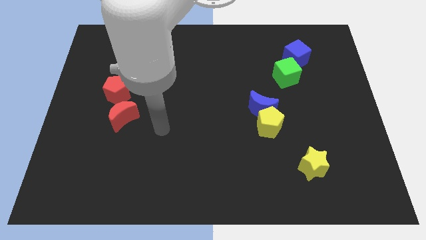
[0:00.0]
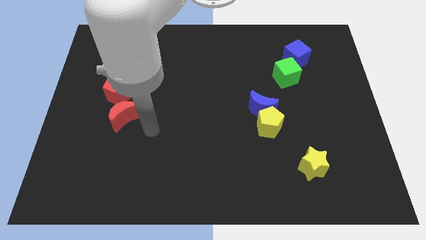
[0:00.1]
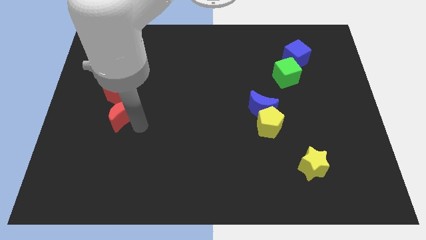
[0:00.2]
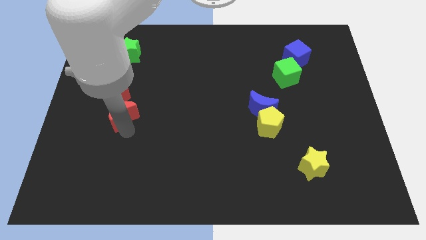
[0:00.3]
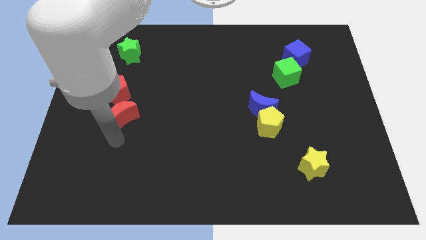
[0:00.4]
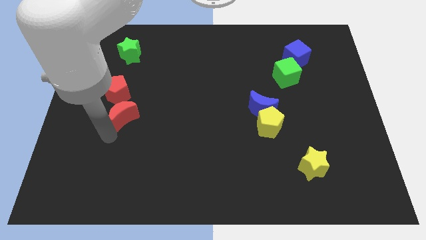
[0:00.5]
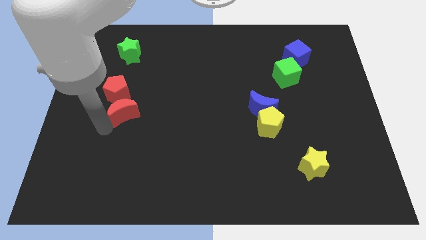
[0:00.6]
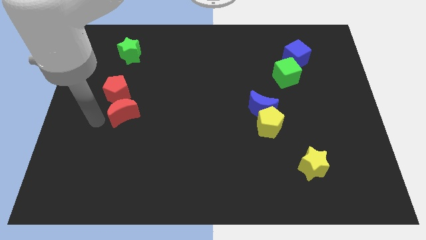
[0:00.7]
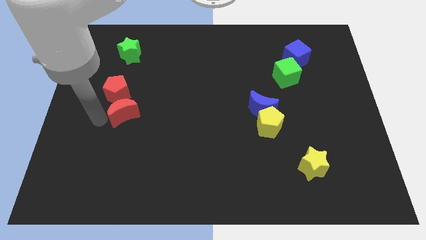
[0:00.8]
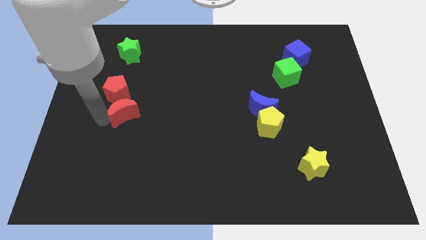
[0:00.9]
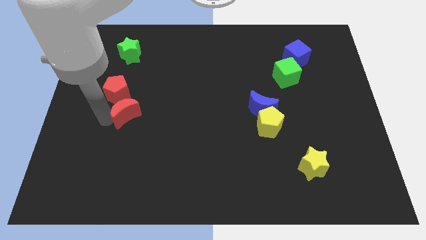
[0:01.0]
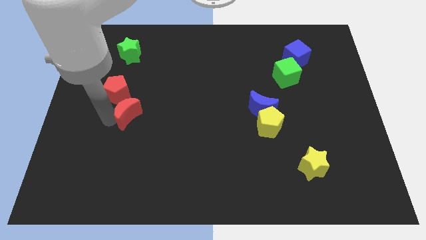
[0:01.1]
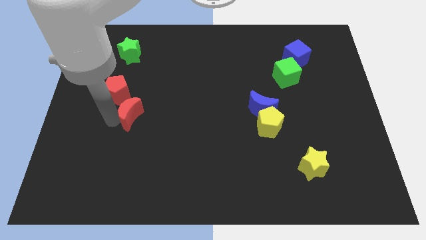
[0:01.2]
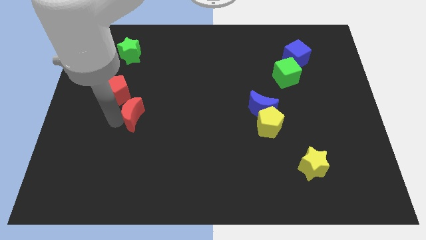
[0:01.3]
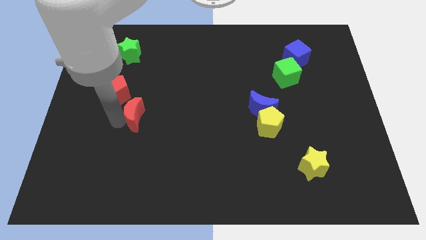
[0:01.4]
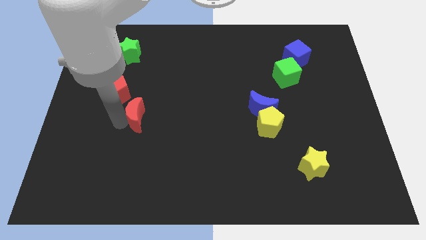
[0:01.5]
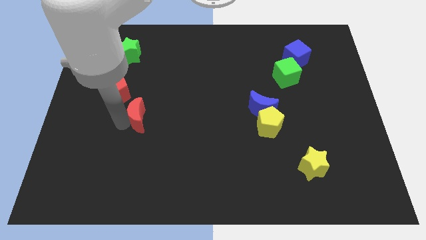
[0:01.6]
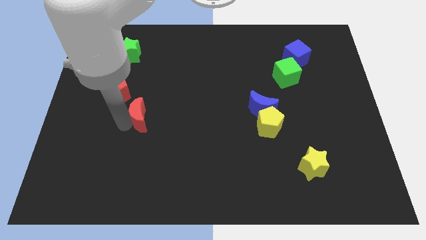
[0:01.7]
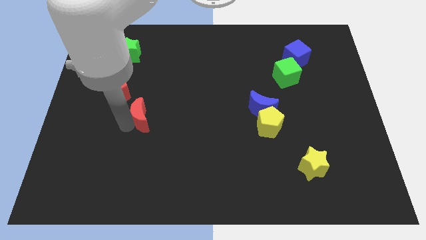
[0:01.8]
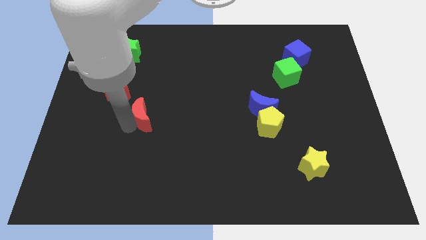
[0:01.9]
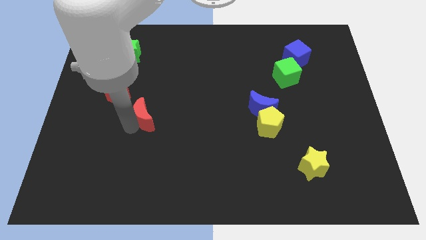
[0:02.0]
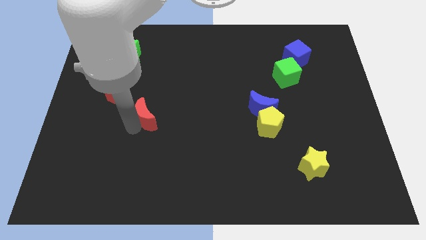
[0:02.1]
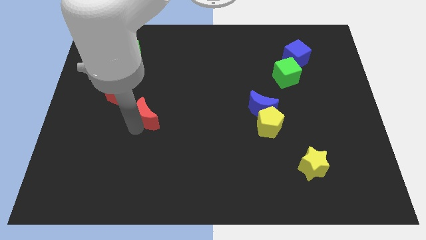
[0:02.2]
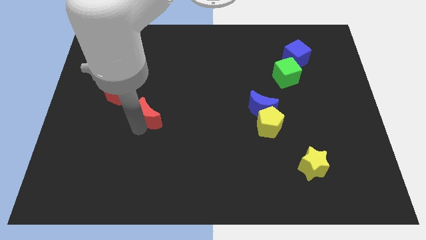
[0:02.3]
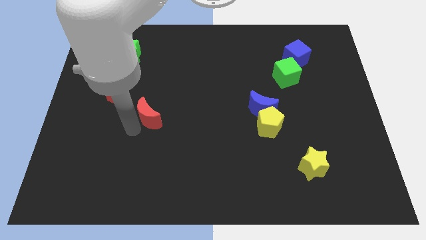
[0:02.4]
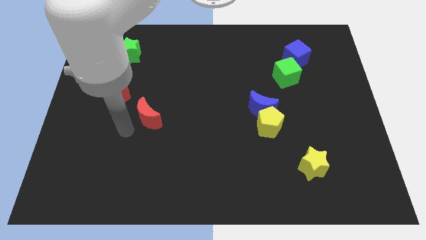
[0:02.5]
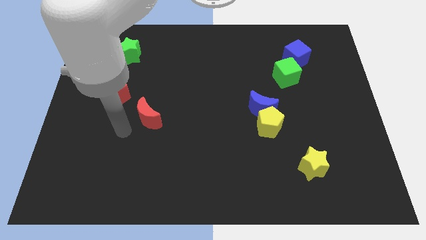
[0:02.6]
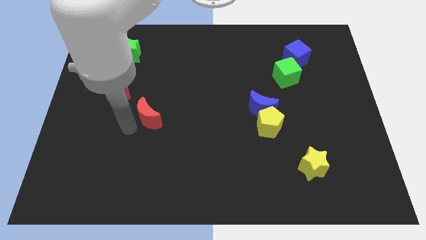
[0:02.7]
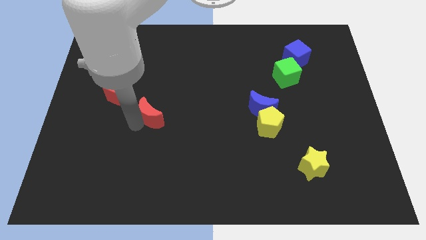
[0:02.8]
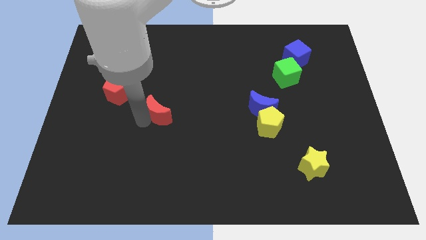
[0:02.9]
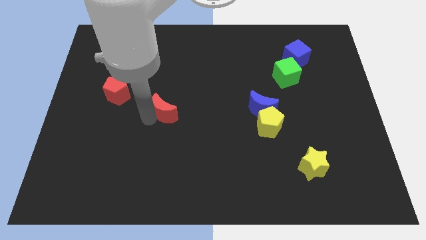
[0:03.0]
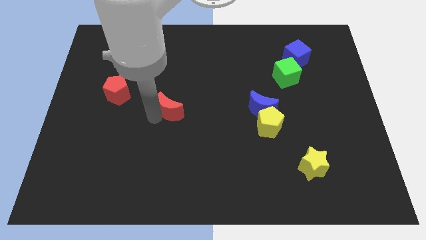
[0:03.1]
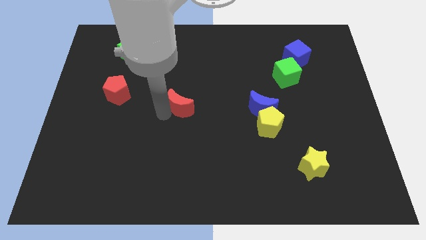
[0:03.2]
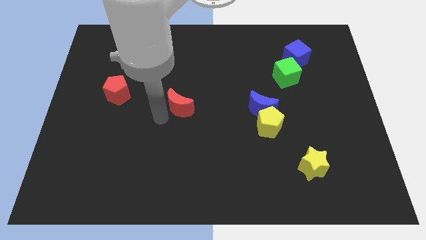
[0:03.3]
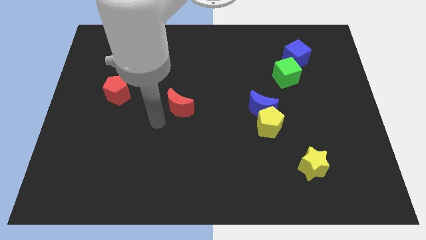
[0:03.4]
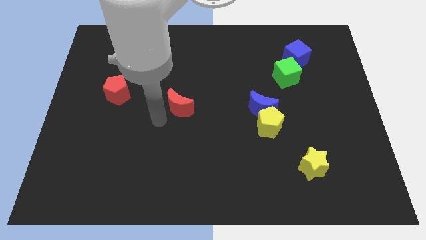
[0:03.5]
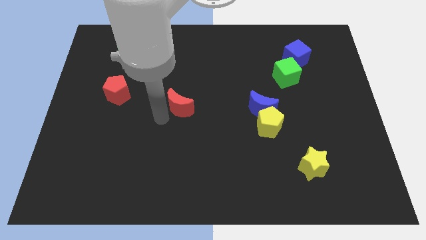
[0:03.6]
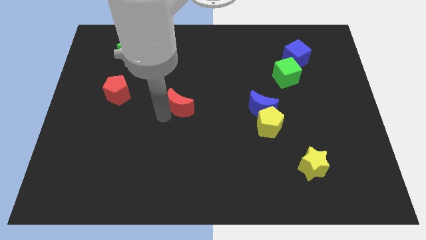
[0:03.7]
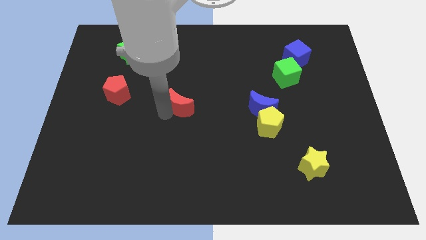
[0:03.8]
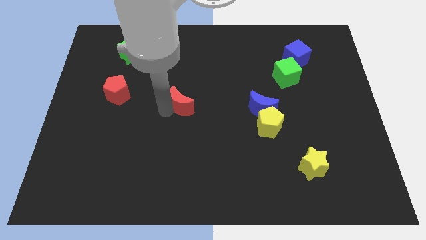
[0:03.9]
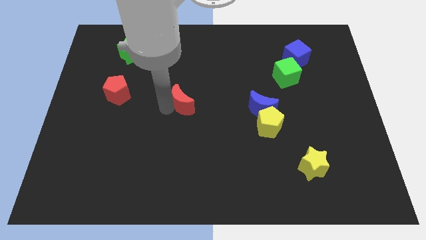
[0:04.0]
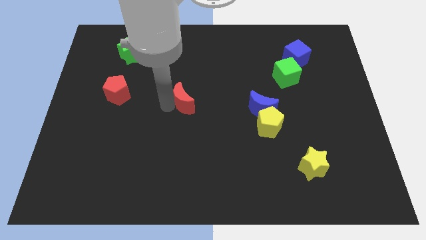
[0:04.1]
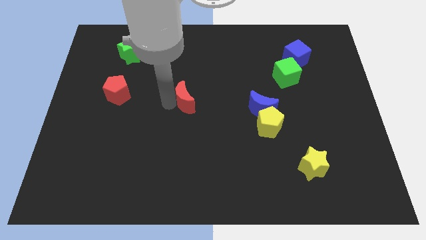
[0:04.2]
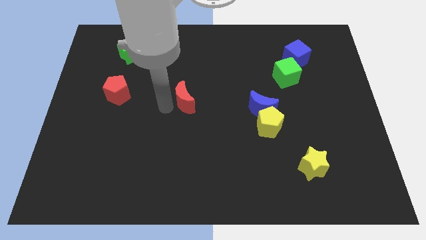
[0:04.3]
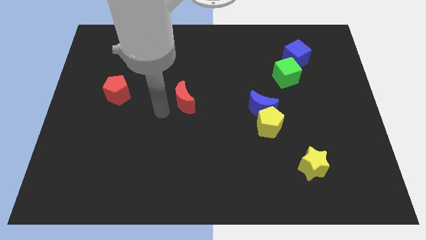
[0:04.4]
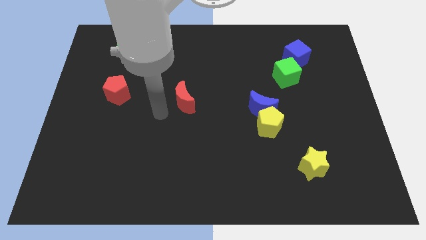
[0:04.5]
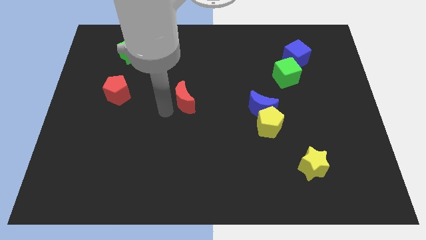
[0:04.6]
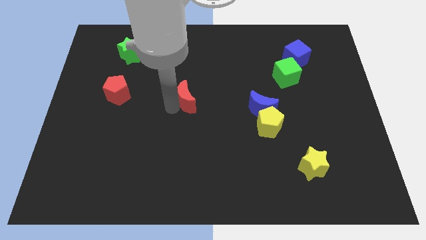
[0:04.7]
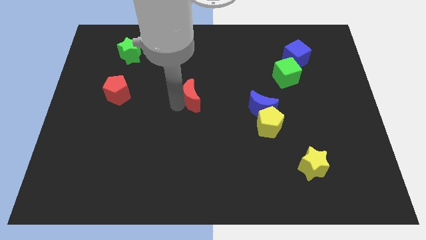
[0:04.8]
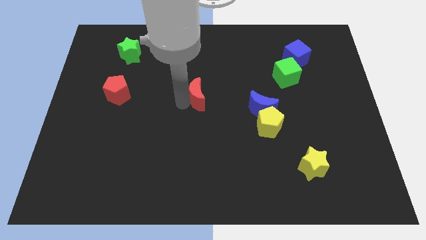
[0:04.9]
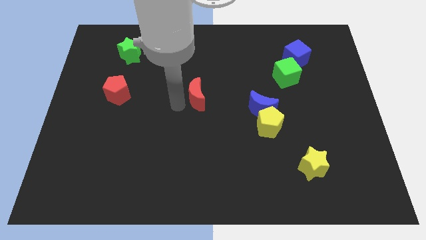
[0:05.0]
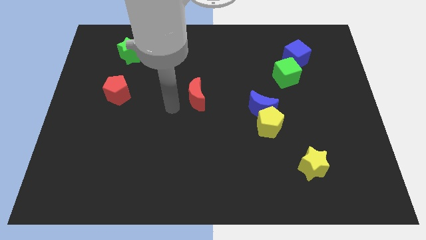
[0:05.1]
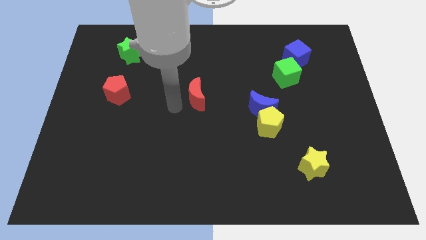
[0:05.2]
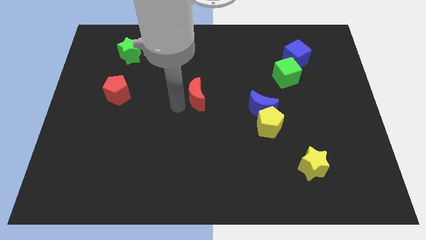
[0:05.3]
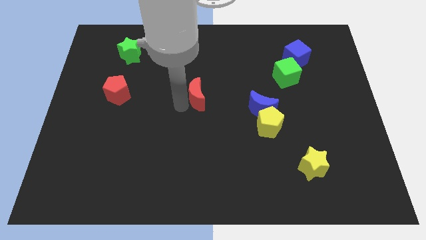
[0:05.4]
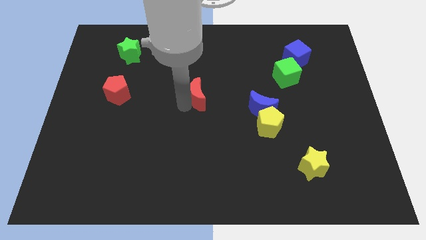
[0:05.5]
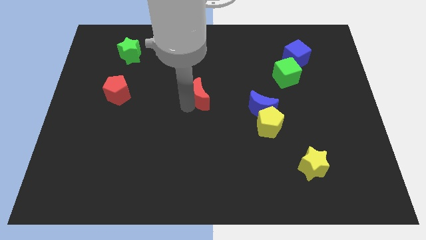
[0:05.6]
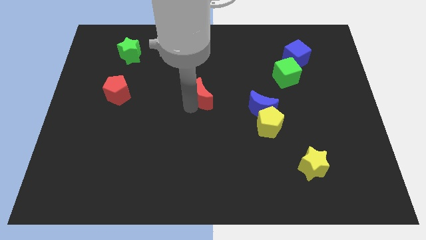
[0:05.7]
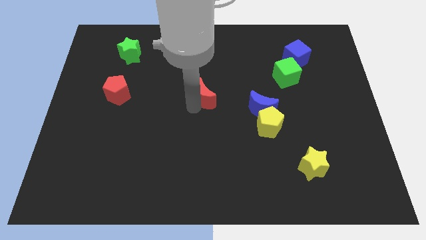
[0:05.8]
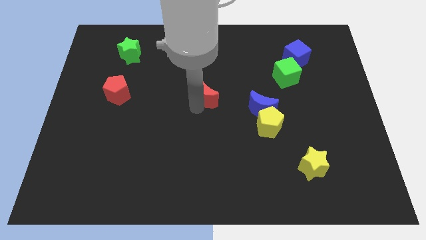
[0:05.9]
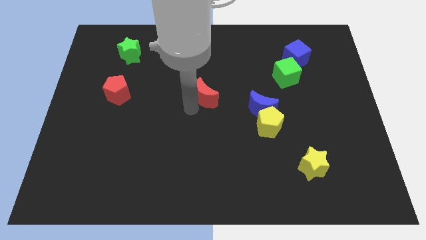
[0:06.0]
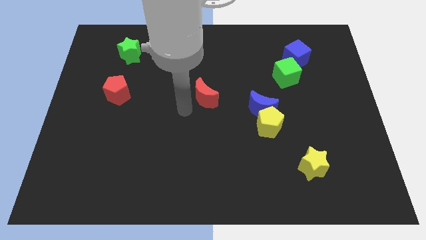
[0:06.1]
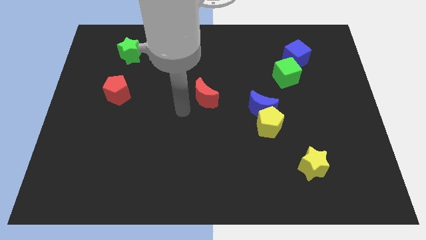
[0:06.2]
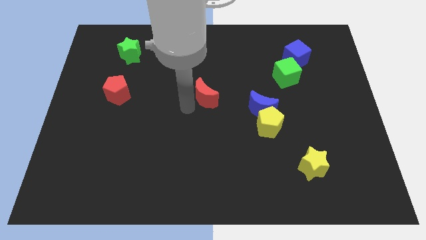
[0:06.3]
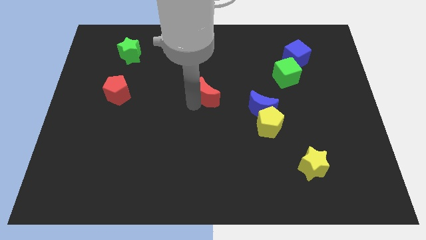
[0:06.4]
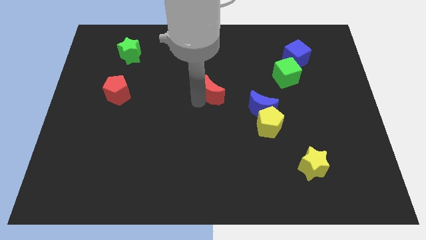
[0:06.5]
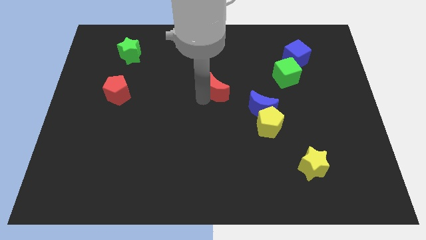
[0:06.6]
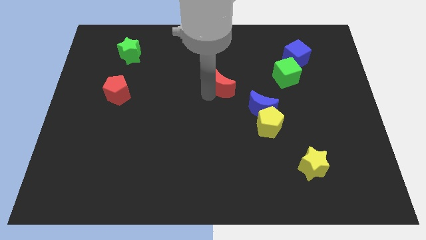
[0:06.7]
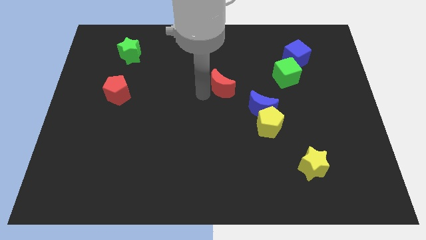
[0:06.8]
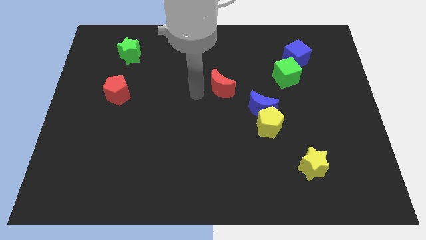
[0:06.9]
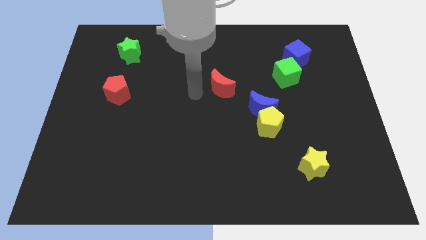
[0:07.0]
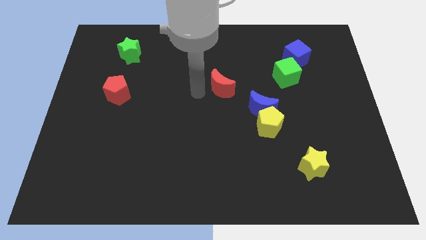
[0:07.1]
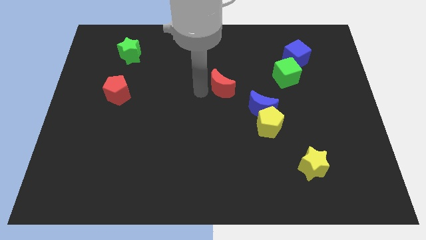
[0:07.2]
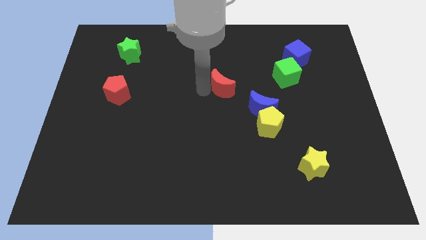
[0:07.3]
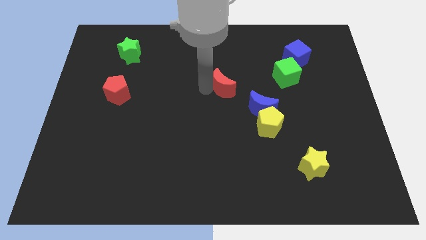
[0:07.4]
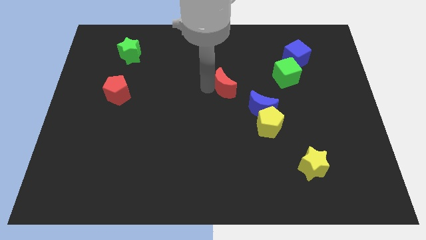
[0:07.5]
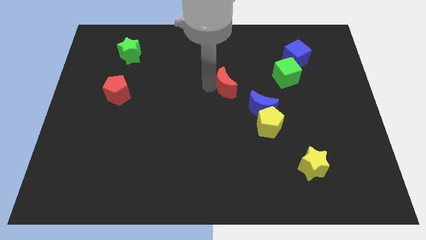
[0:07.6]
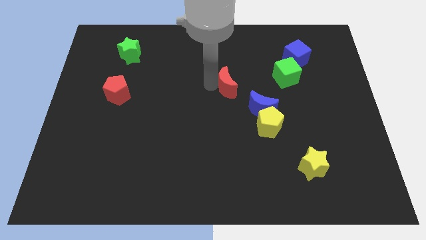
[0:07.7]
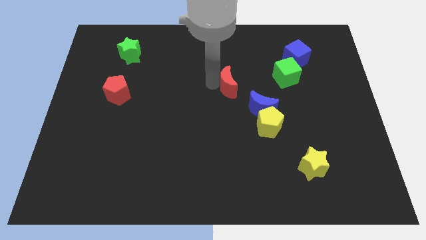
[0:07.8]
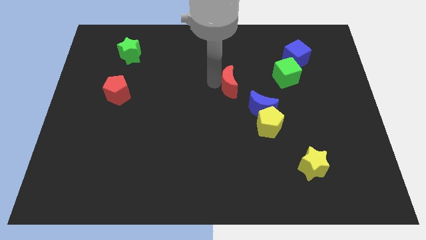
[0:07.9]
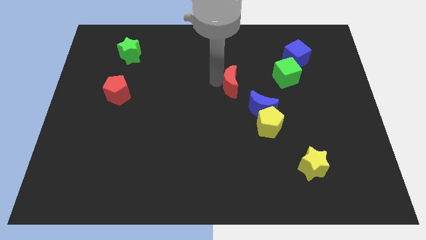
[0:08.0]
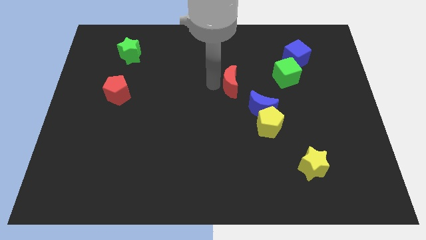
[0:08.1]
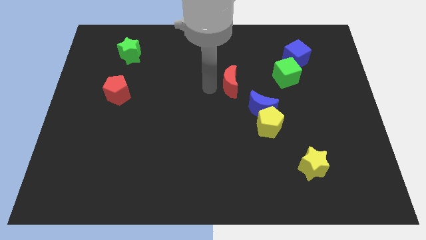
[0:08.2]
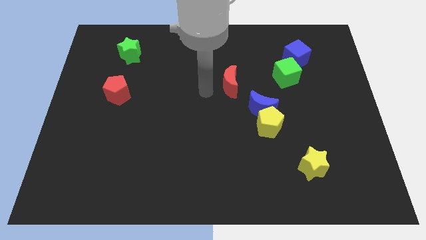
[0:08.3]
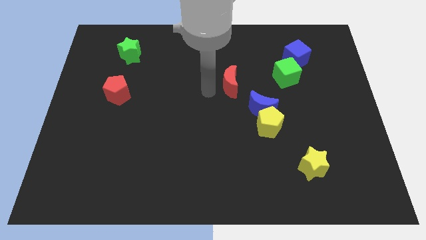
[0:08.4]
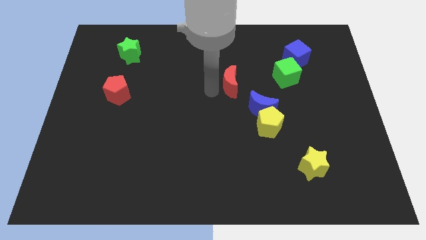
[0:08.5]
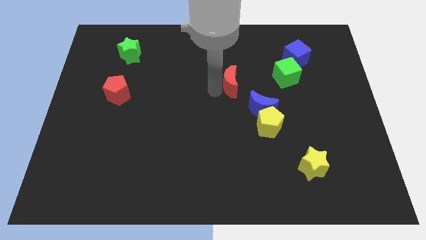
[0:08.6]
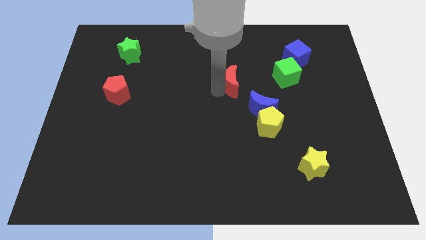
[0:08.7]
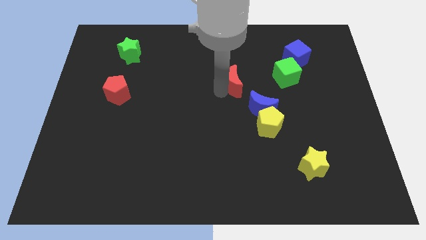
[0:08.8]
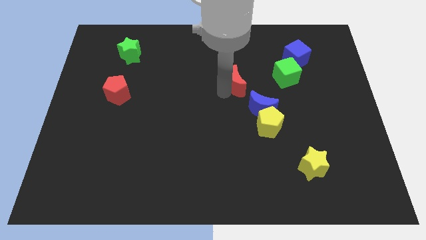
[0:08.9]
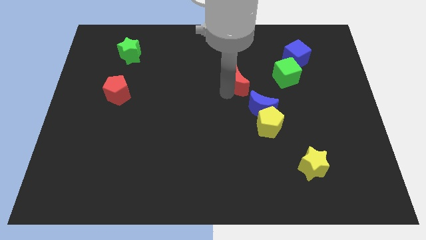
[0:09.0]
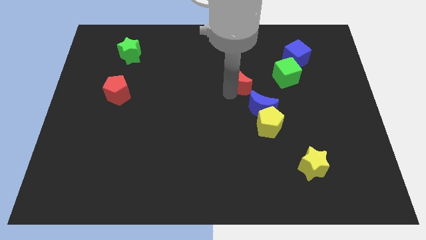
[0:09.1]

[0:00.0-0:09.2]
push the red moon to the top side of the blue moon
